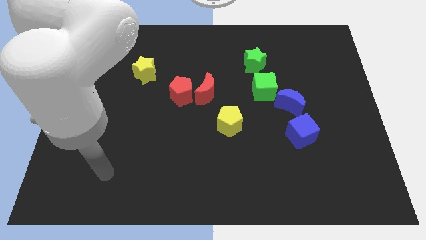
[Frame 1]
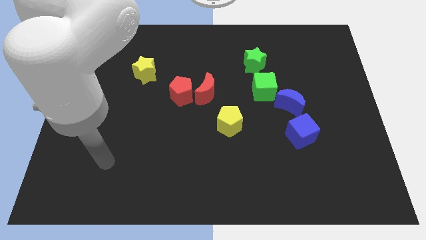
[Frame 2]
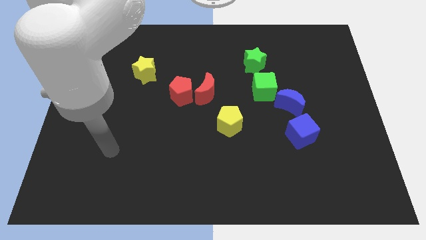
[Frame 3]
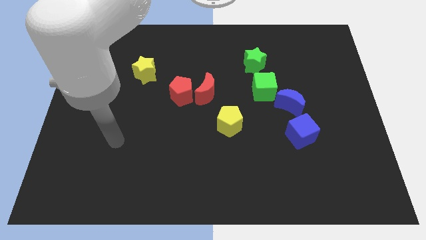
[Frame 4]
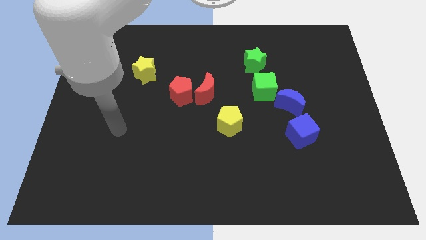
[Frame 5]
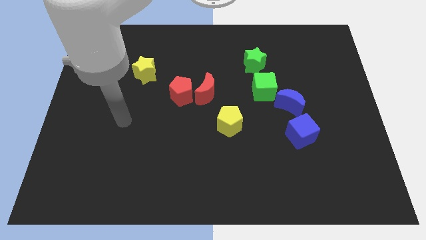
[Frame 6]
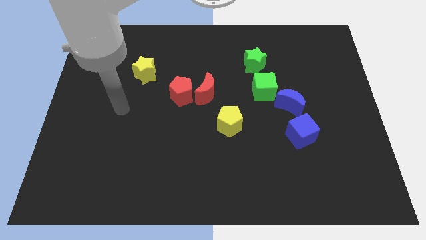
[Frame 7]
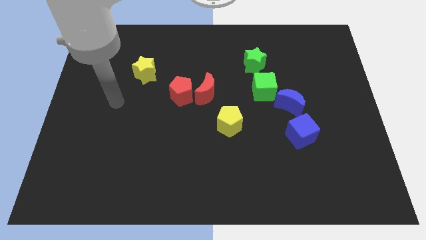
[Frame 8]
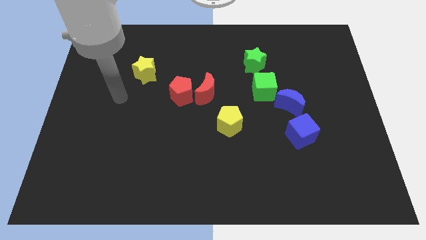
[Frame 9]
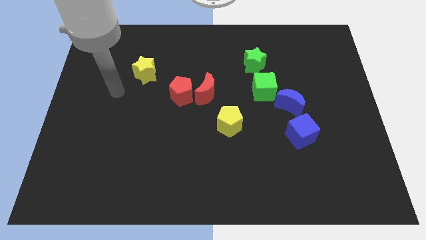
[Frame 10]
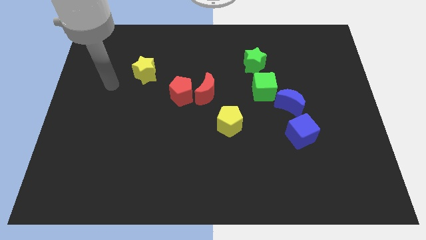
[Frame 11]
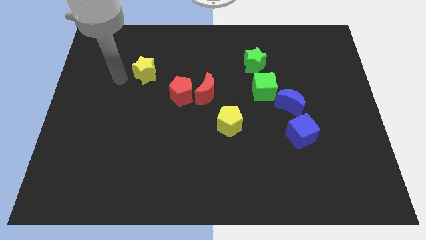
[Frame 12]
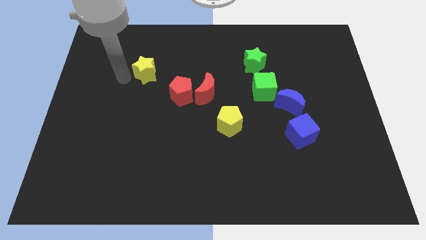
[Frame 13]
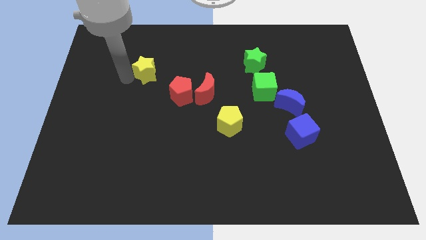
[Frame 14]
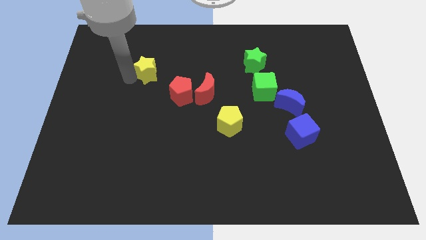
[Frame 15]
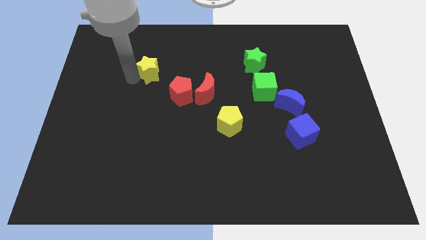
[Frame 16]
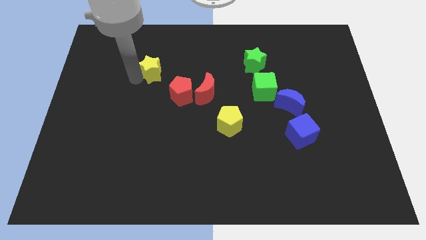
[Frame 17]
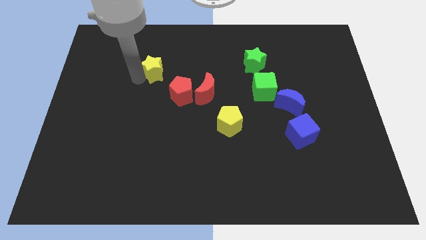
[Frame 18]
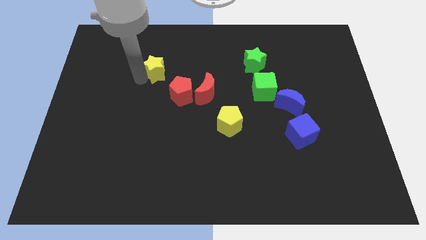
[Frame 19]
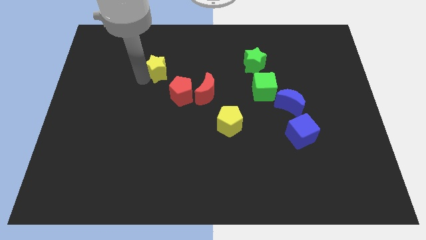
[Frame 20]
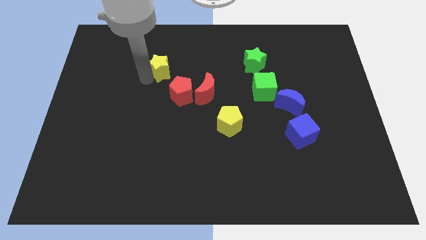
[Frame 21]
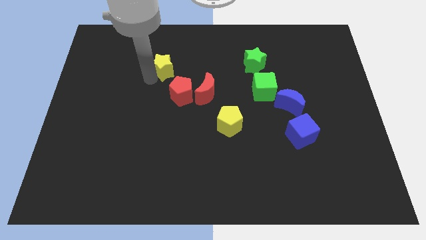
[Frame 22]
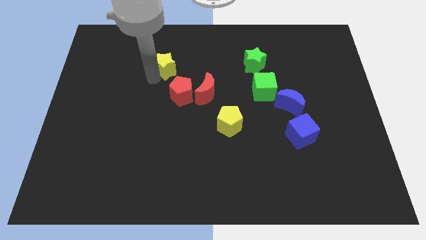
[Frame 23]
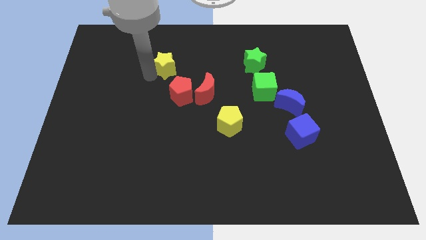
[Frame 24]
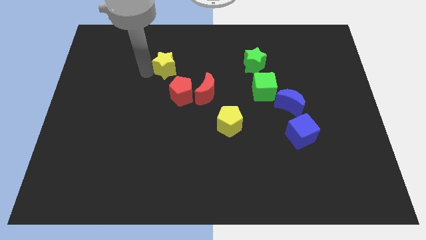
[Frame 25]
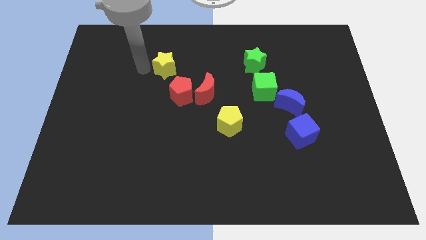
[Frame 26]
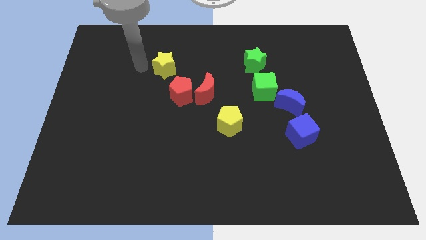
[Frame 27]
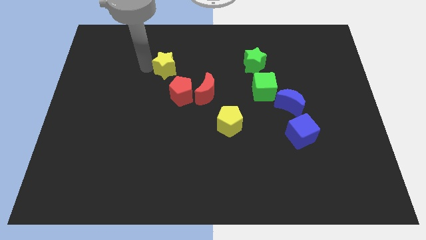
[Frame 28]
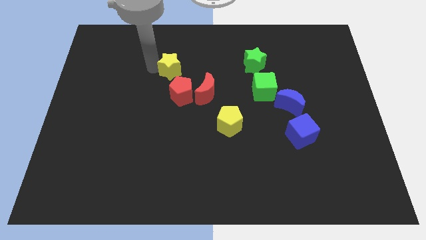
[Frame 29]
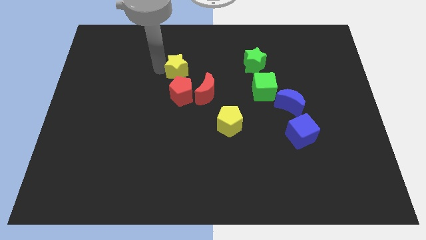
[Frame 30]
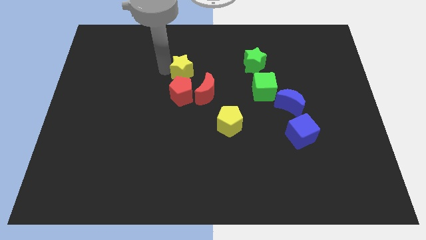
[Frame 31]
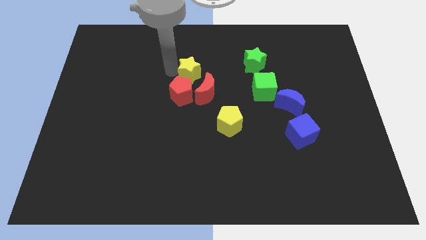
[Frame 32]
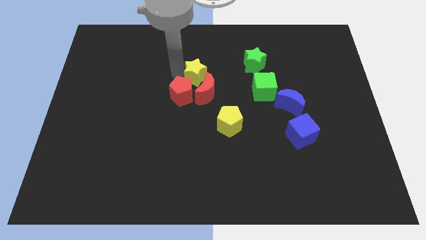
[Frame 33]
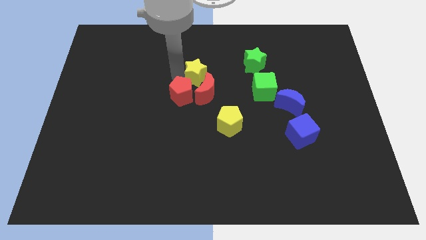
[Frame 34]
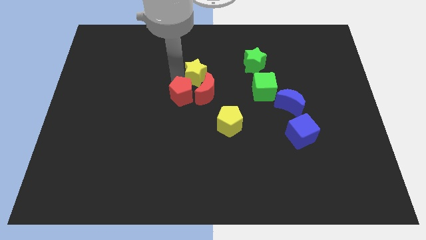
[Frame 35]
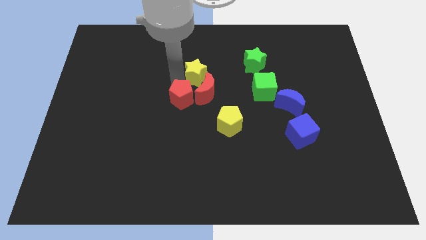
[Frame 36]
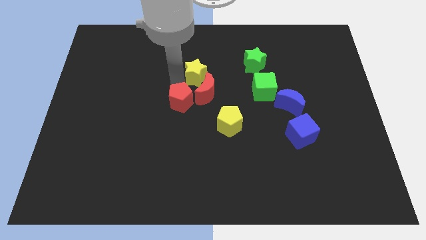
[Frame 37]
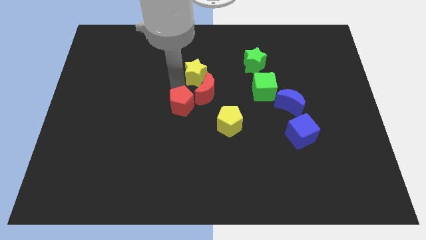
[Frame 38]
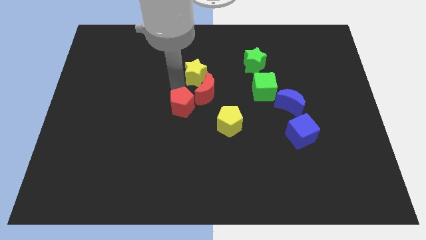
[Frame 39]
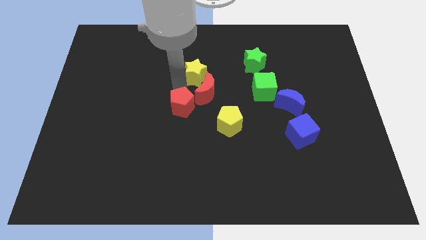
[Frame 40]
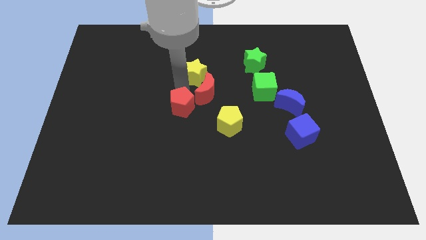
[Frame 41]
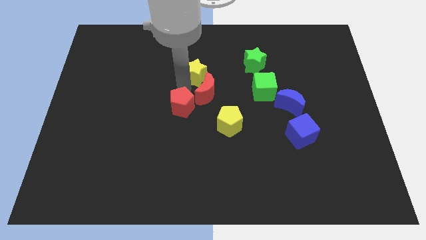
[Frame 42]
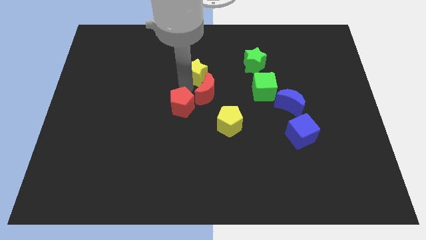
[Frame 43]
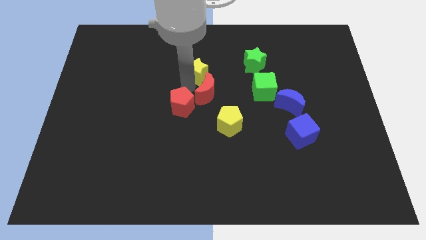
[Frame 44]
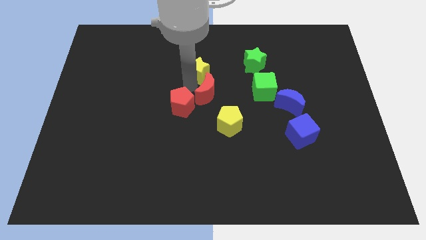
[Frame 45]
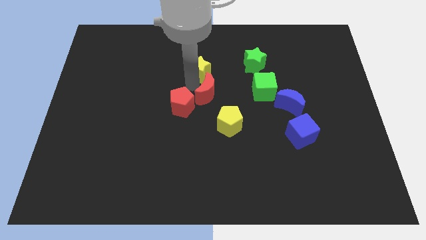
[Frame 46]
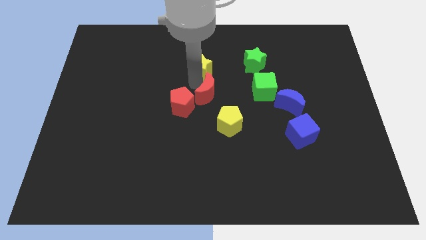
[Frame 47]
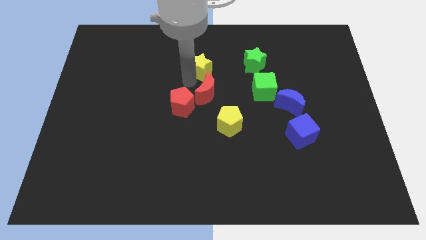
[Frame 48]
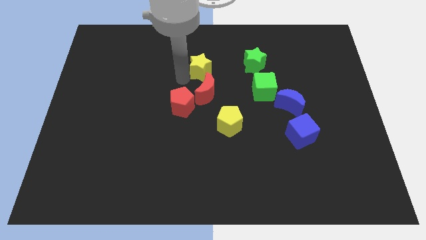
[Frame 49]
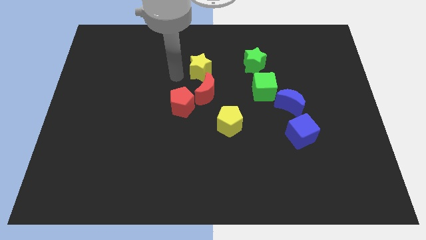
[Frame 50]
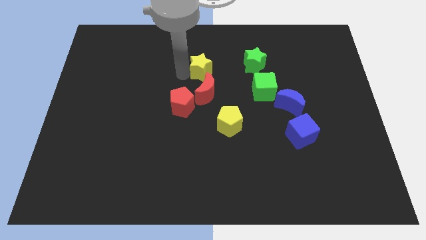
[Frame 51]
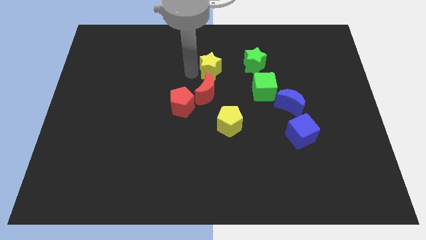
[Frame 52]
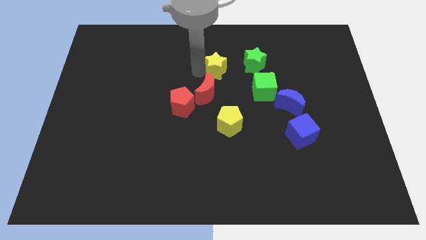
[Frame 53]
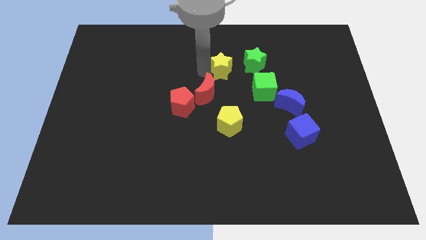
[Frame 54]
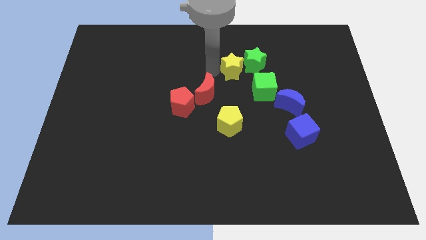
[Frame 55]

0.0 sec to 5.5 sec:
slide the yellow star next to the green star

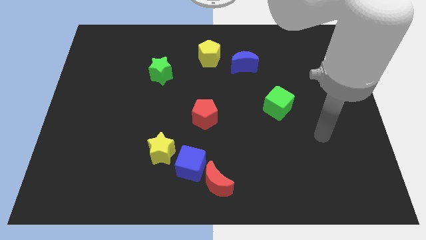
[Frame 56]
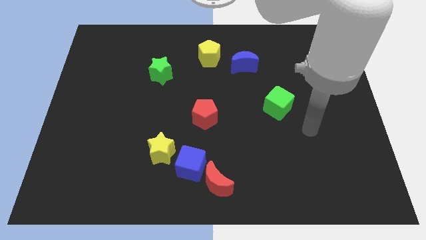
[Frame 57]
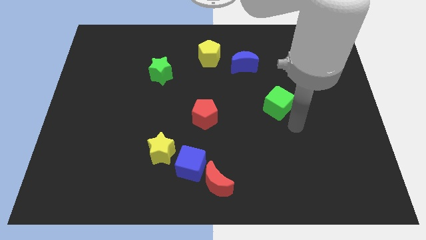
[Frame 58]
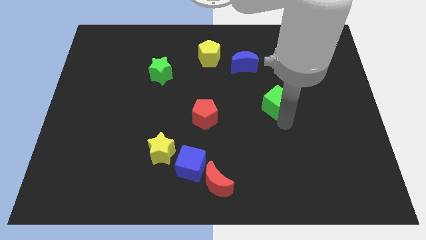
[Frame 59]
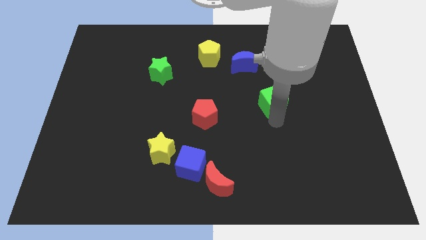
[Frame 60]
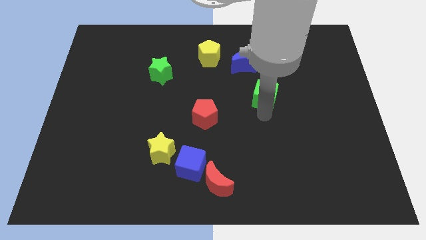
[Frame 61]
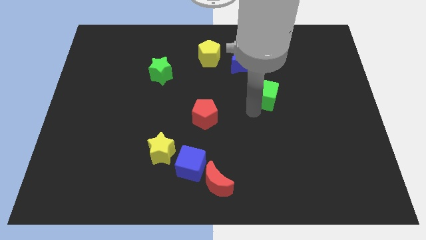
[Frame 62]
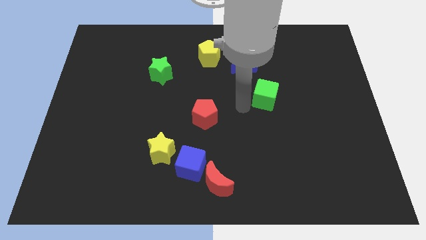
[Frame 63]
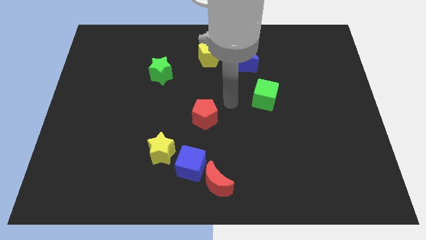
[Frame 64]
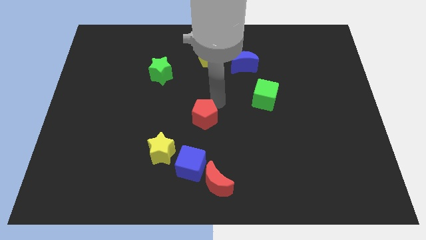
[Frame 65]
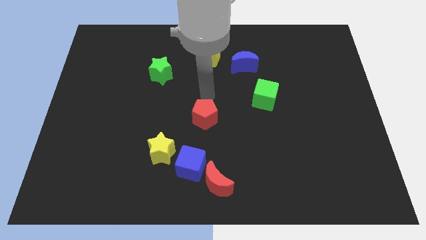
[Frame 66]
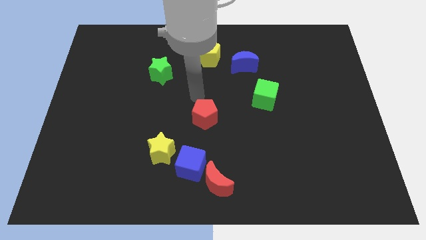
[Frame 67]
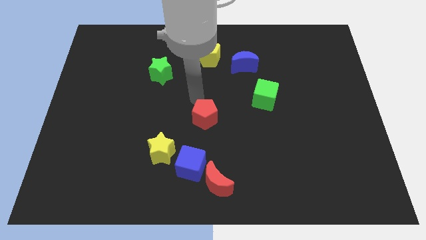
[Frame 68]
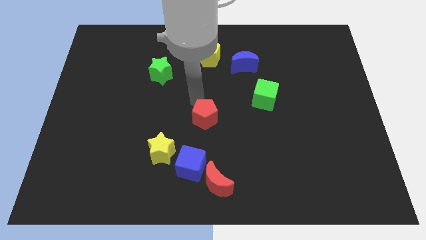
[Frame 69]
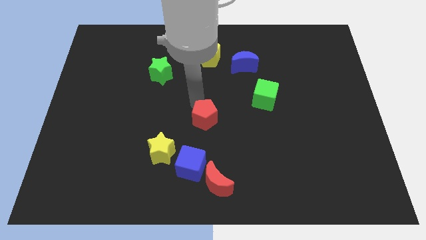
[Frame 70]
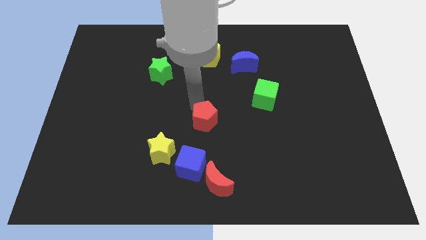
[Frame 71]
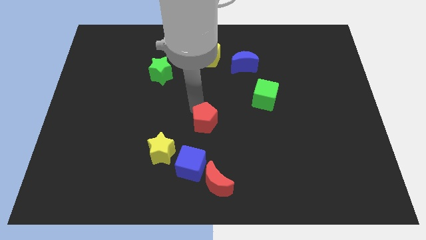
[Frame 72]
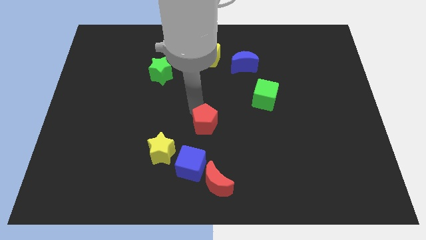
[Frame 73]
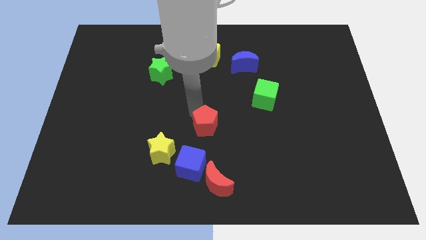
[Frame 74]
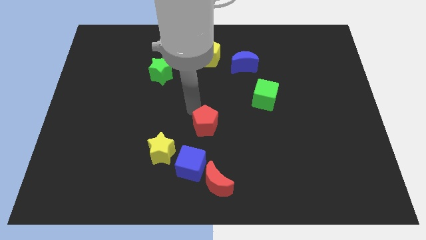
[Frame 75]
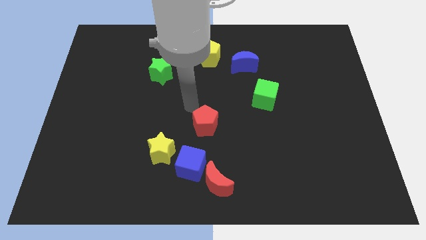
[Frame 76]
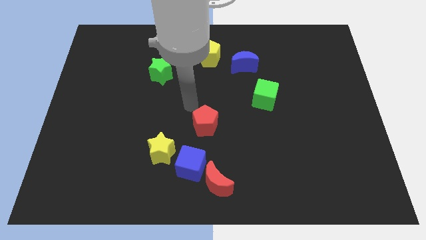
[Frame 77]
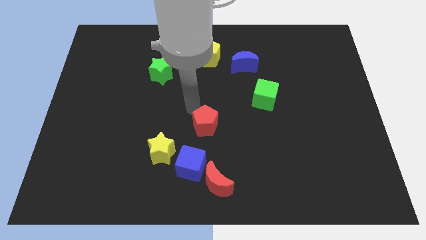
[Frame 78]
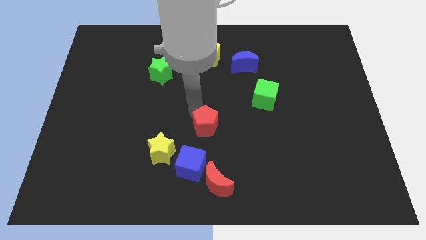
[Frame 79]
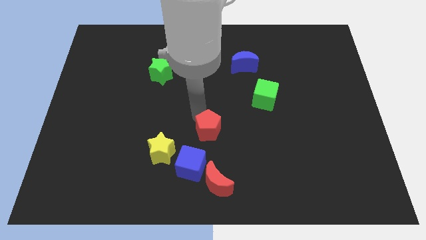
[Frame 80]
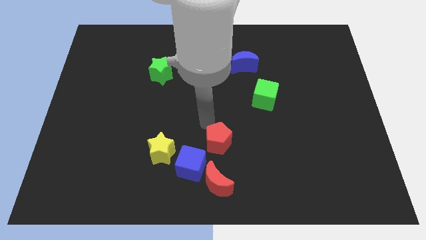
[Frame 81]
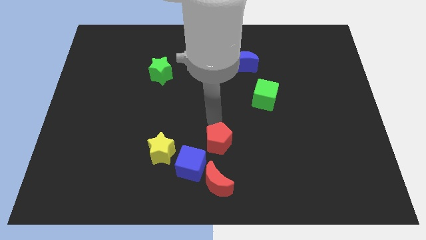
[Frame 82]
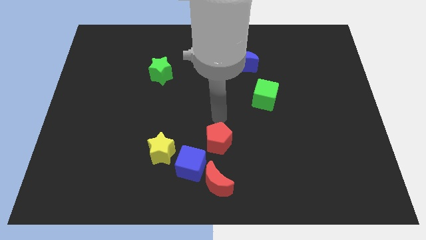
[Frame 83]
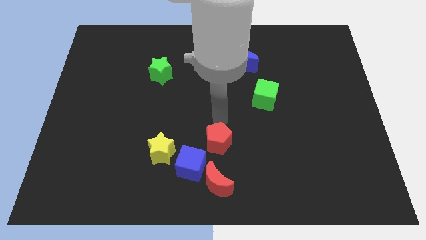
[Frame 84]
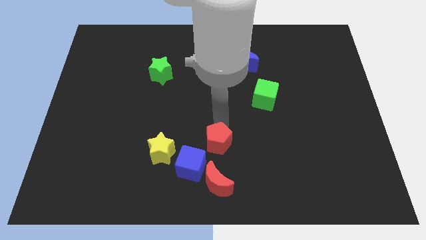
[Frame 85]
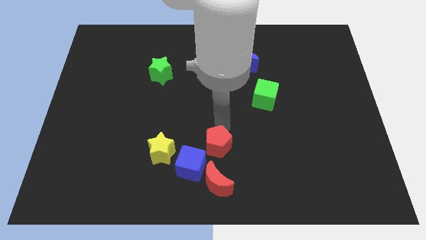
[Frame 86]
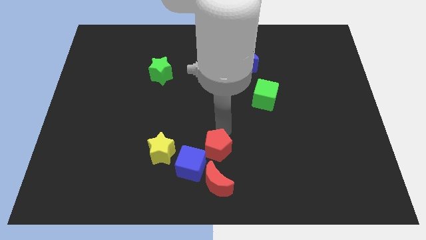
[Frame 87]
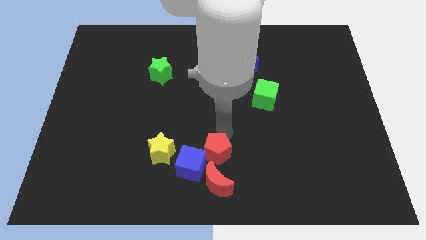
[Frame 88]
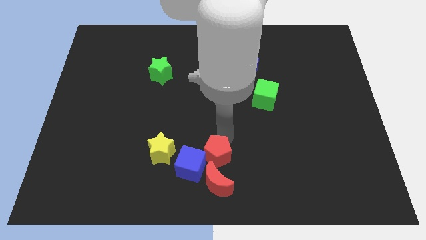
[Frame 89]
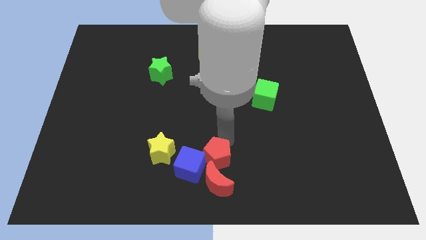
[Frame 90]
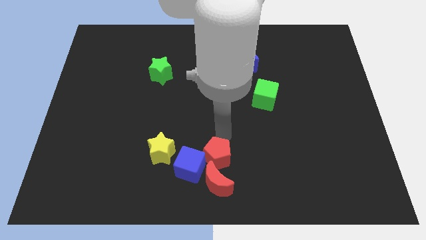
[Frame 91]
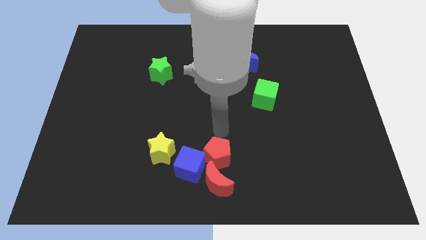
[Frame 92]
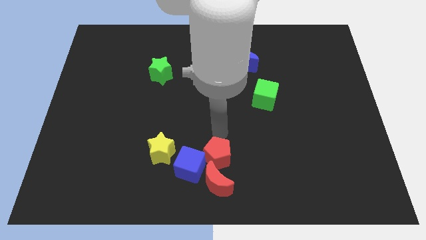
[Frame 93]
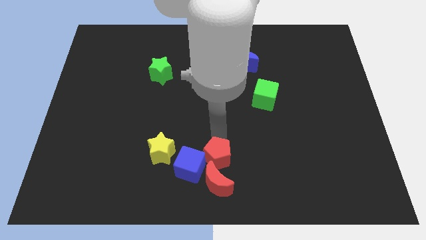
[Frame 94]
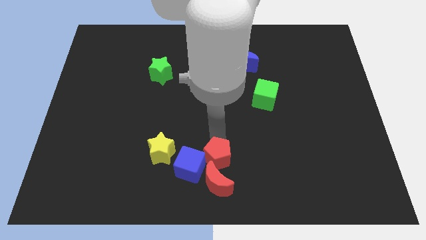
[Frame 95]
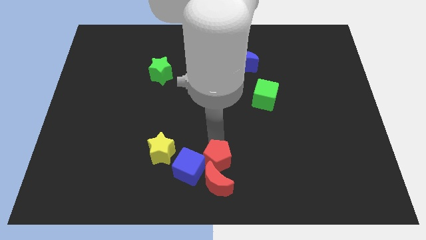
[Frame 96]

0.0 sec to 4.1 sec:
push the red pentagon to the red moon
